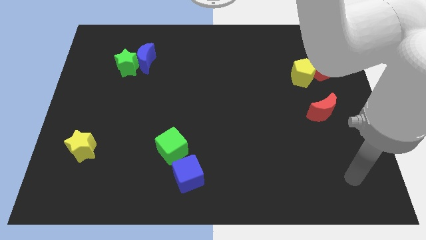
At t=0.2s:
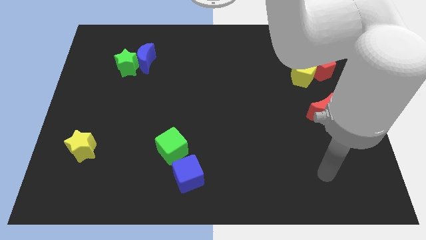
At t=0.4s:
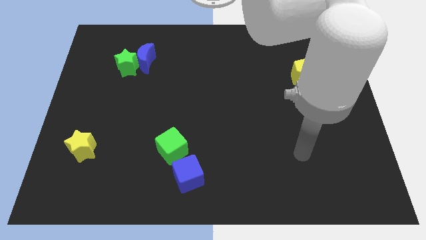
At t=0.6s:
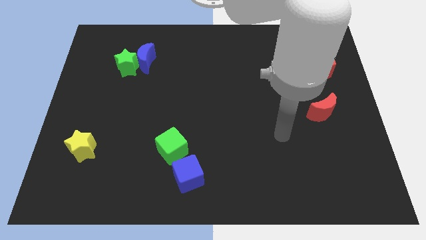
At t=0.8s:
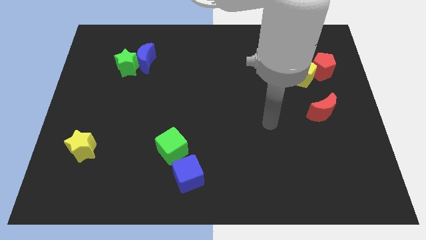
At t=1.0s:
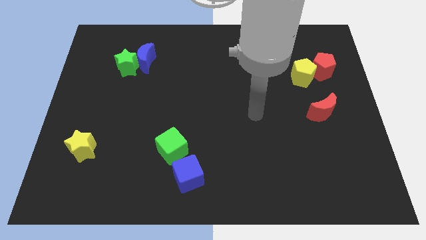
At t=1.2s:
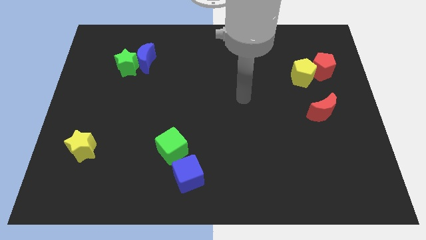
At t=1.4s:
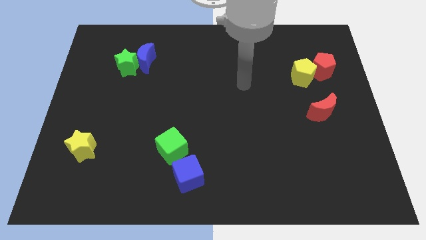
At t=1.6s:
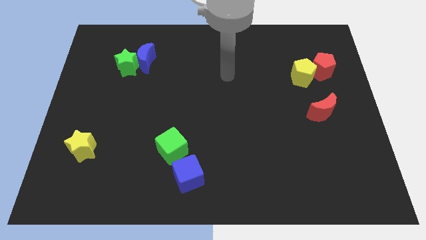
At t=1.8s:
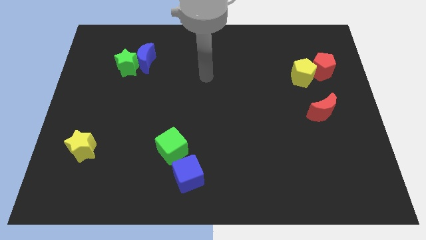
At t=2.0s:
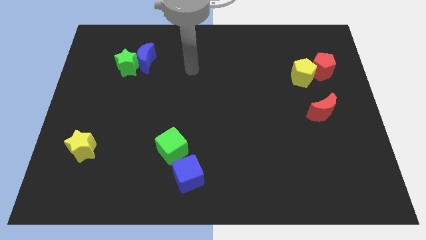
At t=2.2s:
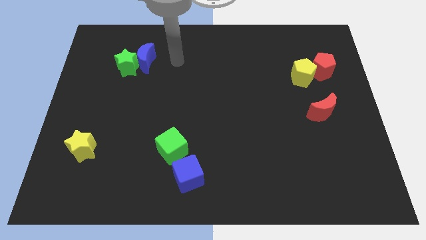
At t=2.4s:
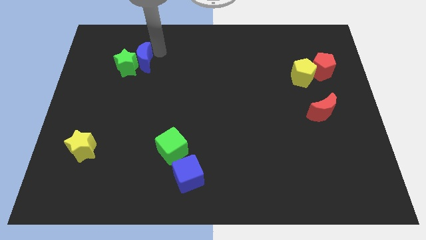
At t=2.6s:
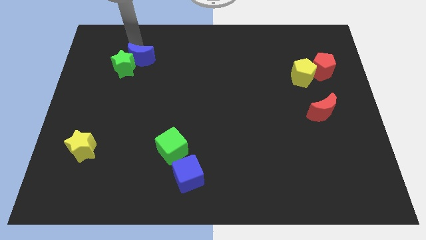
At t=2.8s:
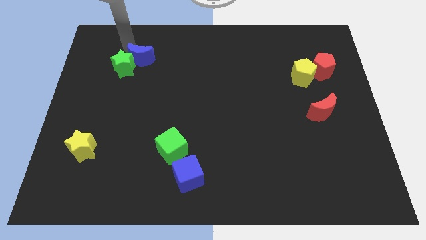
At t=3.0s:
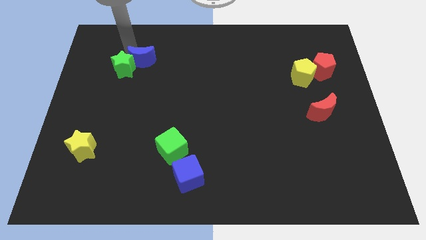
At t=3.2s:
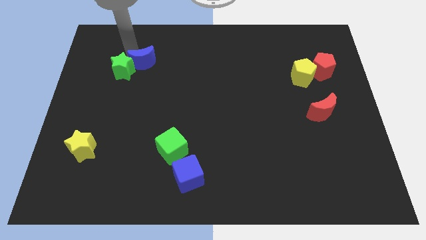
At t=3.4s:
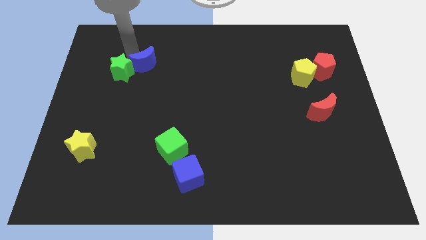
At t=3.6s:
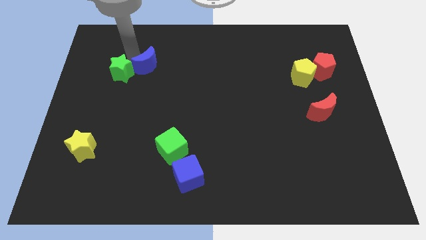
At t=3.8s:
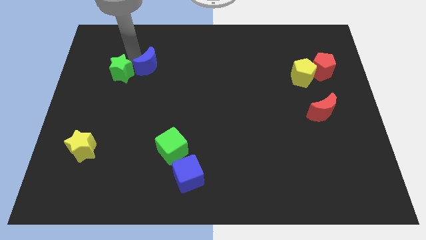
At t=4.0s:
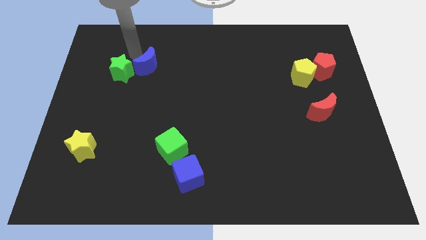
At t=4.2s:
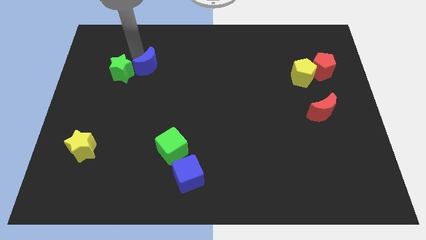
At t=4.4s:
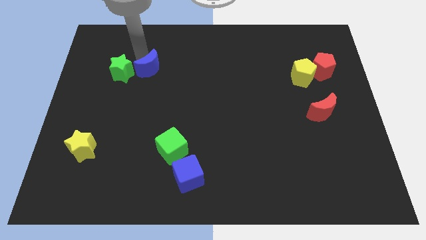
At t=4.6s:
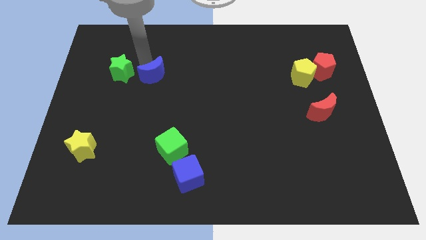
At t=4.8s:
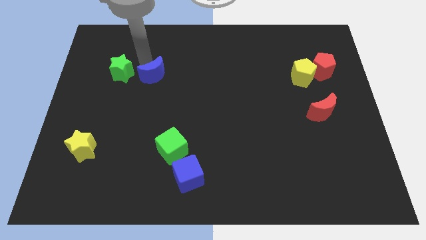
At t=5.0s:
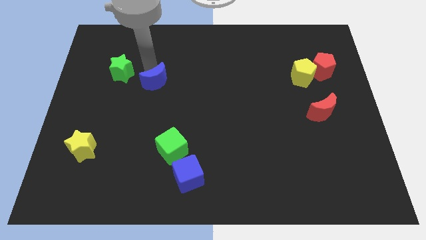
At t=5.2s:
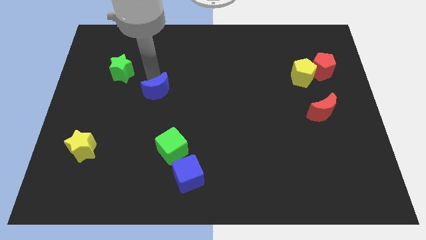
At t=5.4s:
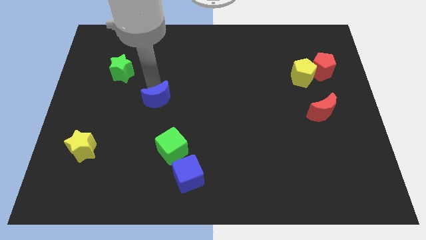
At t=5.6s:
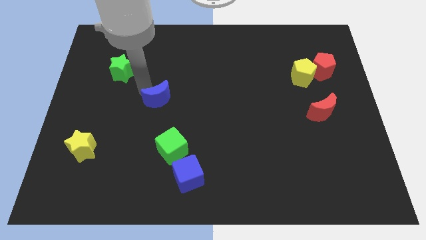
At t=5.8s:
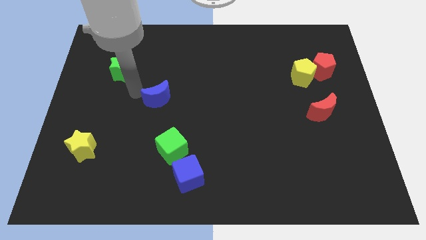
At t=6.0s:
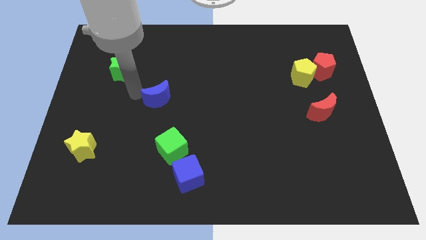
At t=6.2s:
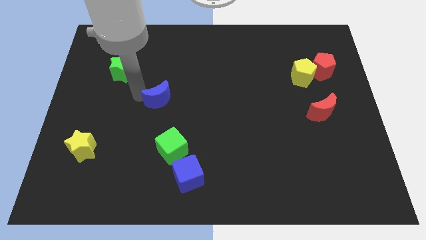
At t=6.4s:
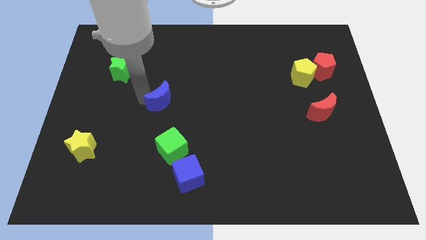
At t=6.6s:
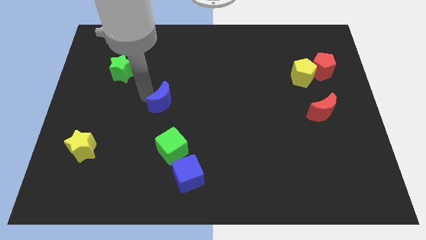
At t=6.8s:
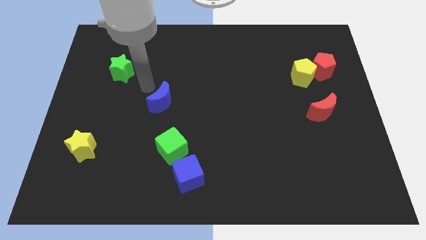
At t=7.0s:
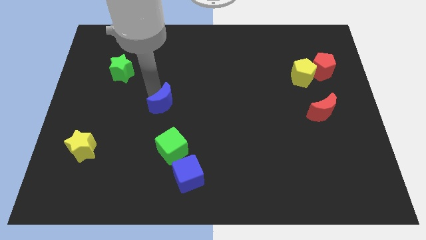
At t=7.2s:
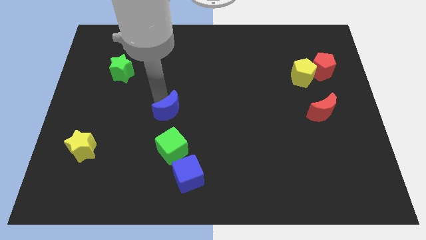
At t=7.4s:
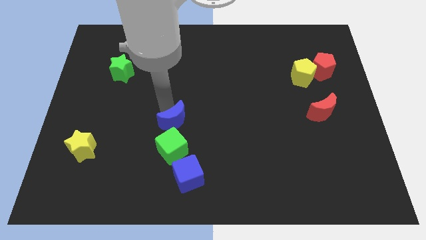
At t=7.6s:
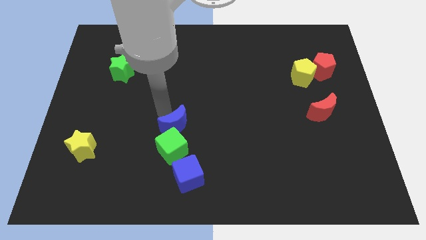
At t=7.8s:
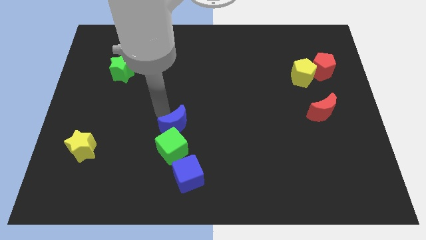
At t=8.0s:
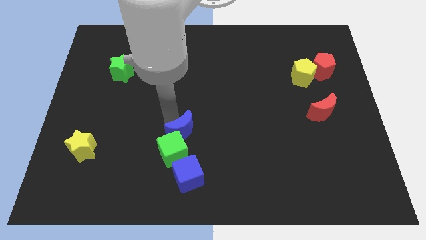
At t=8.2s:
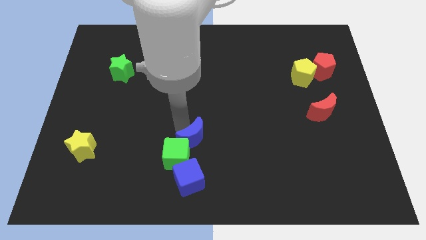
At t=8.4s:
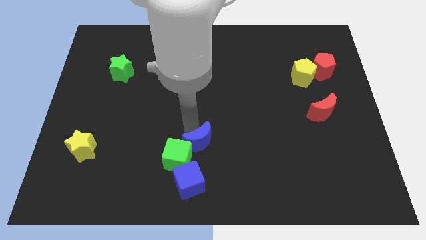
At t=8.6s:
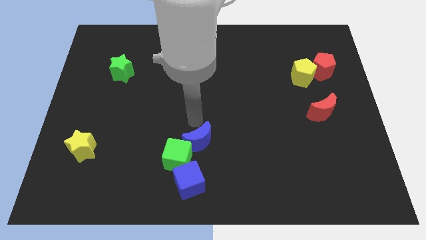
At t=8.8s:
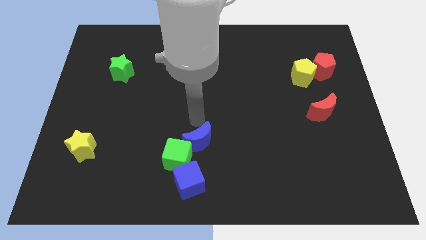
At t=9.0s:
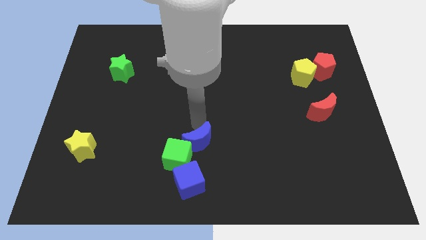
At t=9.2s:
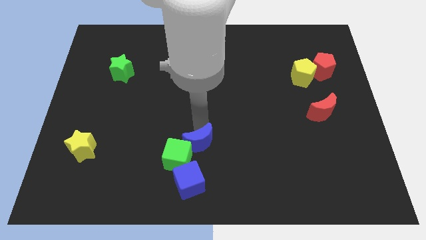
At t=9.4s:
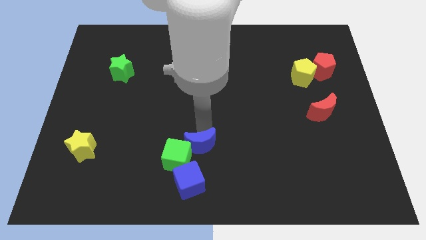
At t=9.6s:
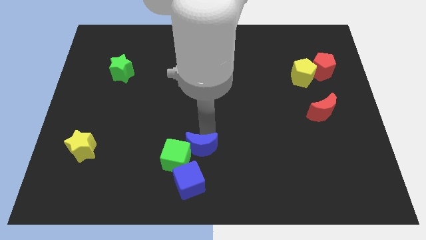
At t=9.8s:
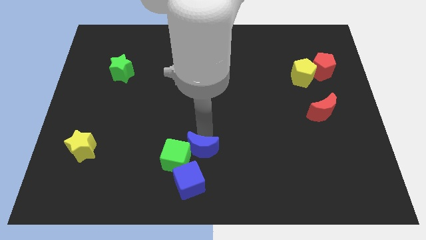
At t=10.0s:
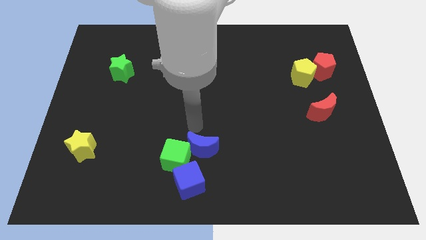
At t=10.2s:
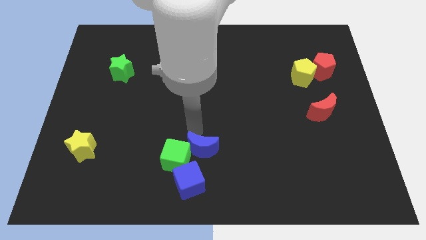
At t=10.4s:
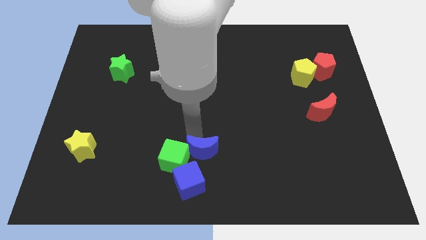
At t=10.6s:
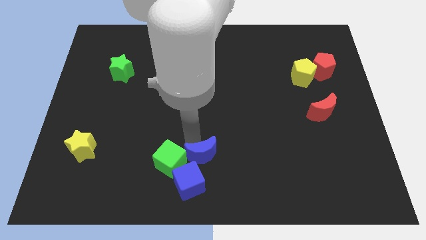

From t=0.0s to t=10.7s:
put the blue moon to the bottom side
